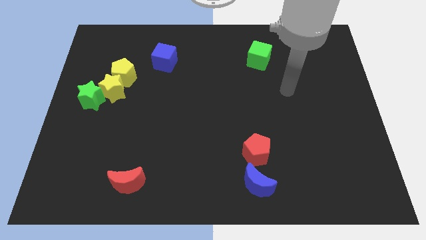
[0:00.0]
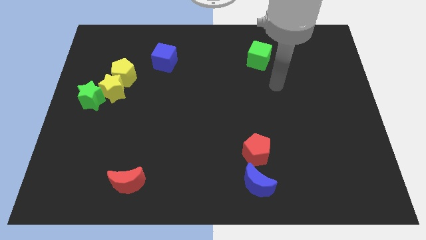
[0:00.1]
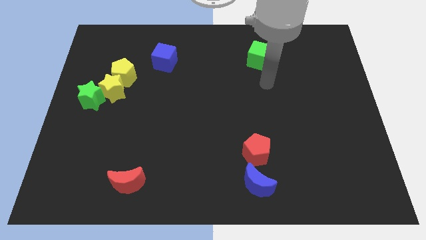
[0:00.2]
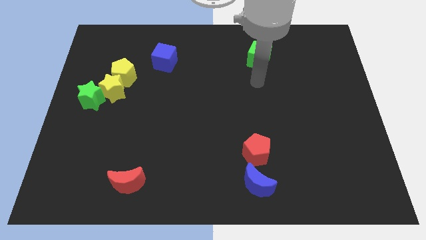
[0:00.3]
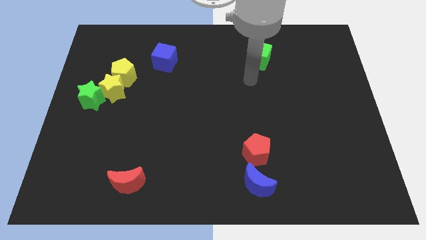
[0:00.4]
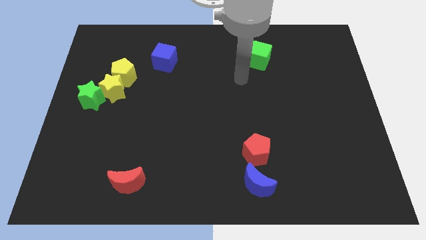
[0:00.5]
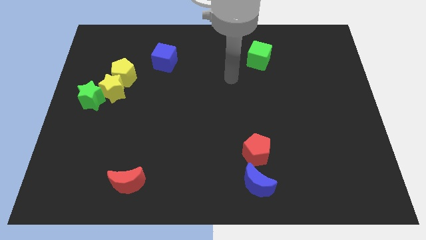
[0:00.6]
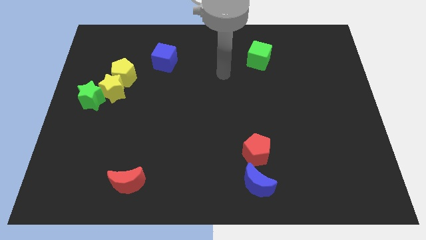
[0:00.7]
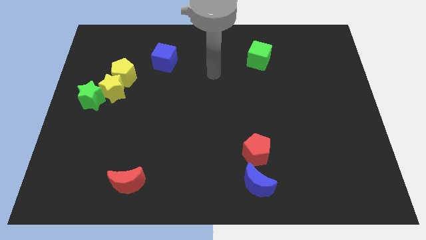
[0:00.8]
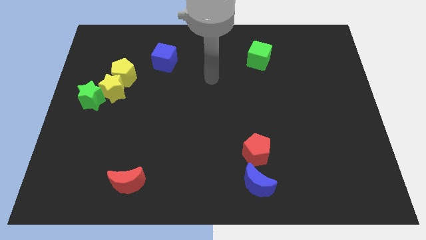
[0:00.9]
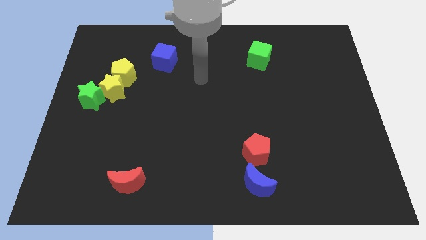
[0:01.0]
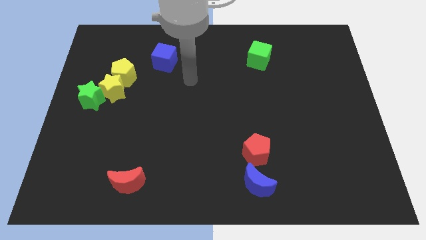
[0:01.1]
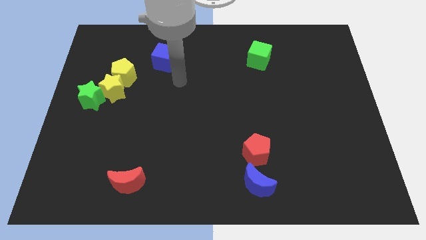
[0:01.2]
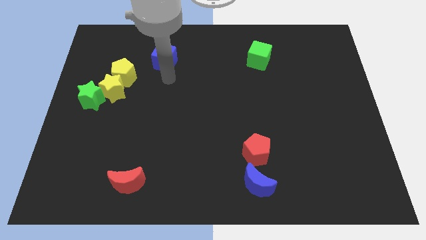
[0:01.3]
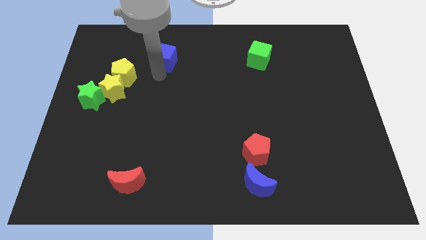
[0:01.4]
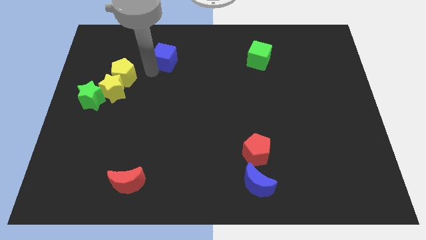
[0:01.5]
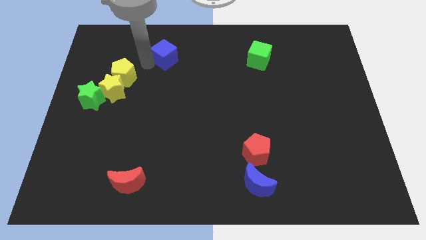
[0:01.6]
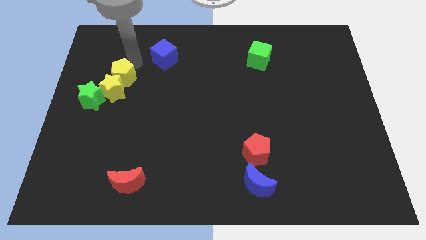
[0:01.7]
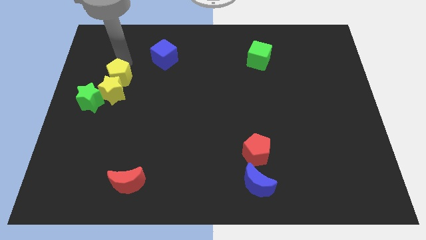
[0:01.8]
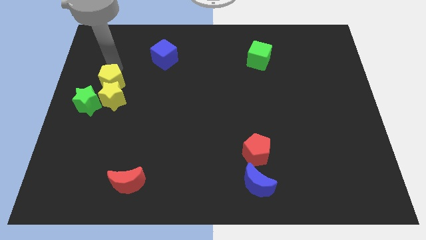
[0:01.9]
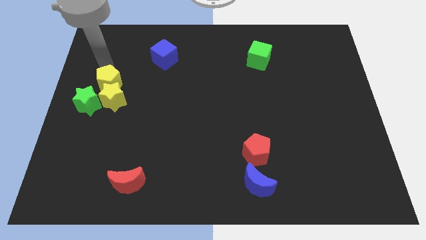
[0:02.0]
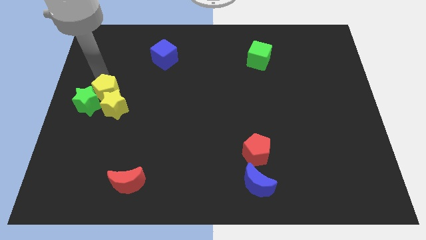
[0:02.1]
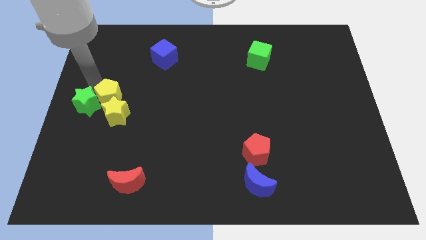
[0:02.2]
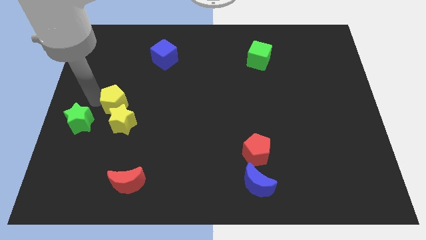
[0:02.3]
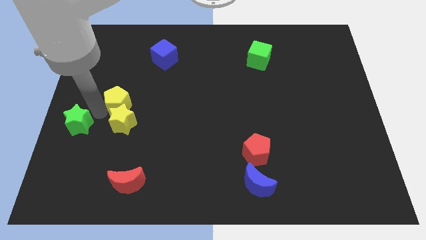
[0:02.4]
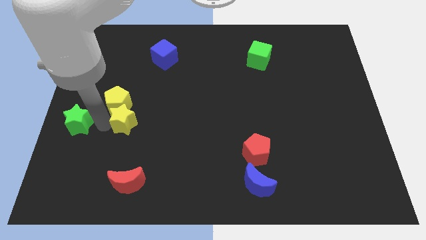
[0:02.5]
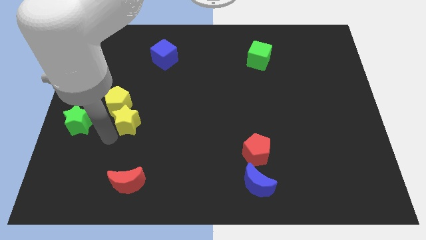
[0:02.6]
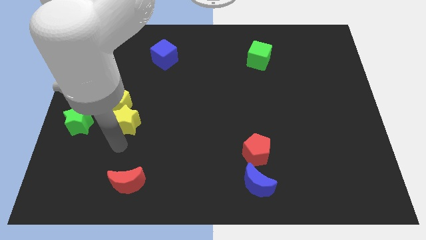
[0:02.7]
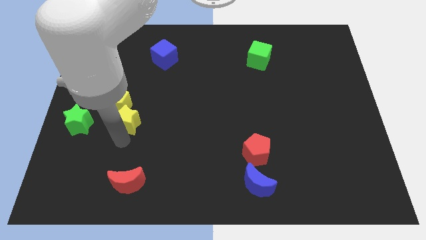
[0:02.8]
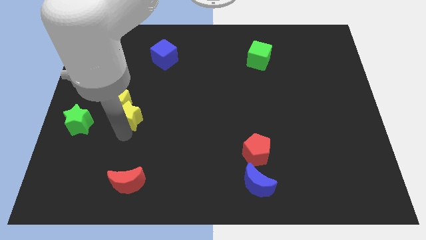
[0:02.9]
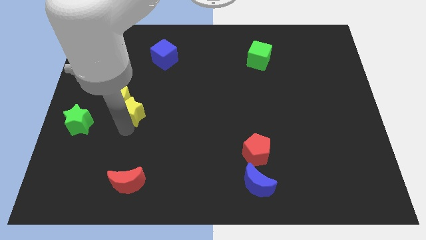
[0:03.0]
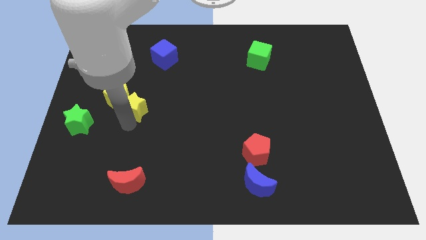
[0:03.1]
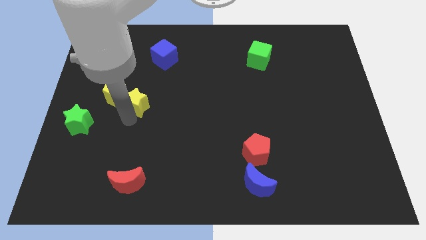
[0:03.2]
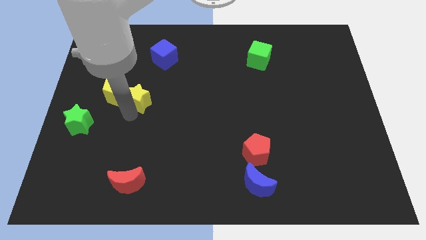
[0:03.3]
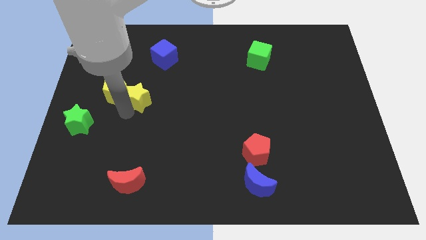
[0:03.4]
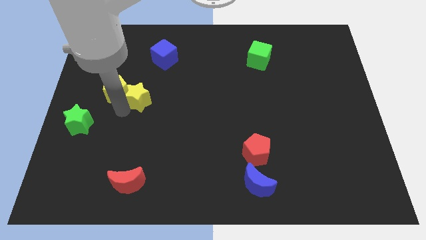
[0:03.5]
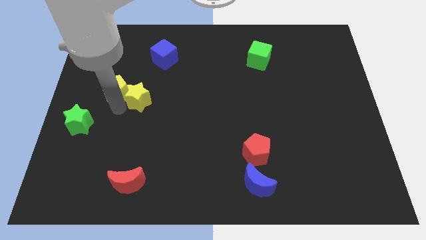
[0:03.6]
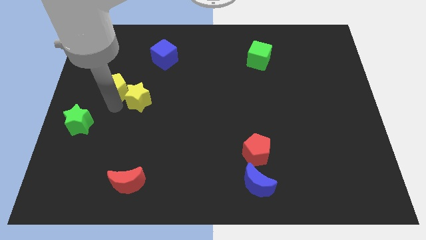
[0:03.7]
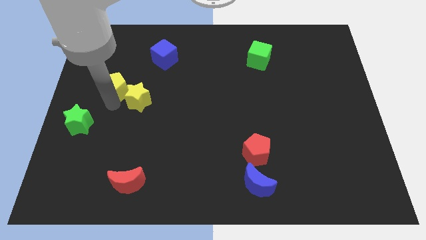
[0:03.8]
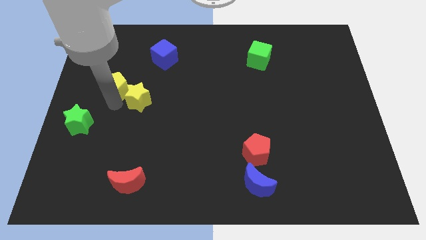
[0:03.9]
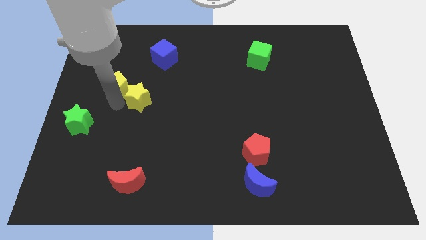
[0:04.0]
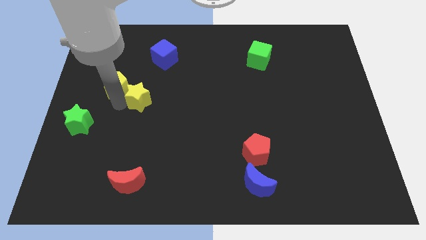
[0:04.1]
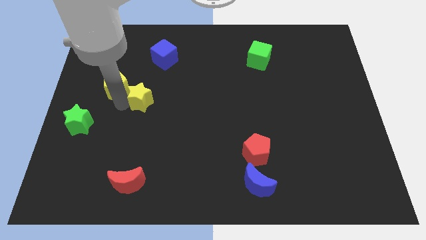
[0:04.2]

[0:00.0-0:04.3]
pull the yellow star apart from the yellow pentagon and green star

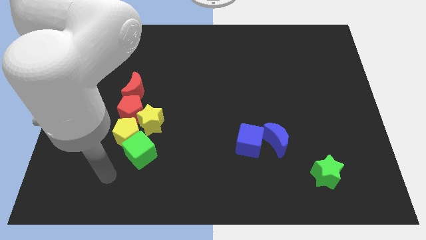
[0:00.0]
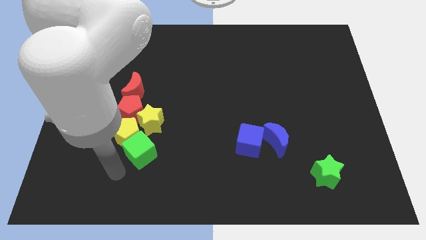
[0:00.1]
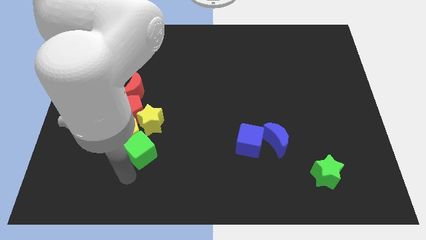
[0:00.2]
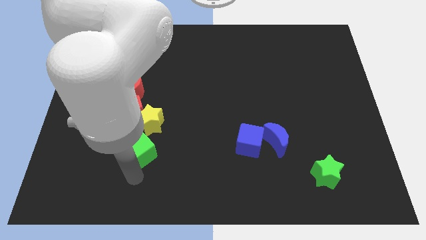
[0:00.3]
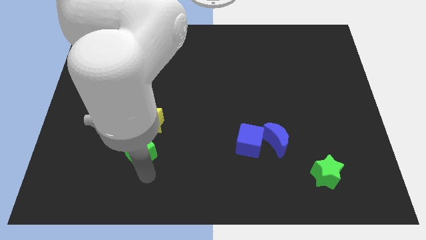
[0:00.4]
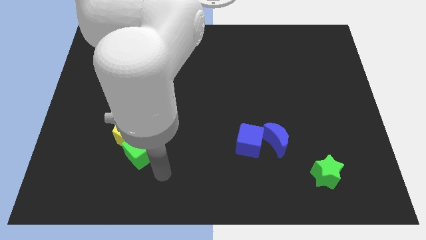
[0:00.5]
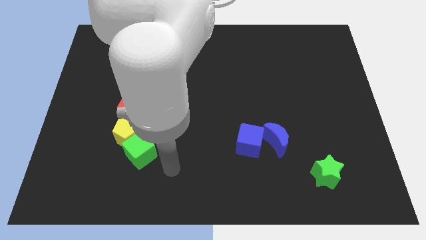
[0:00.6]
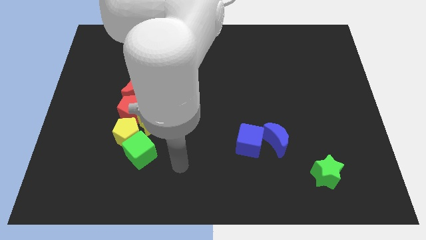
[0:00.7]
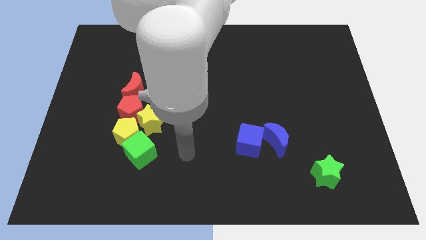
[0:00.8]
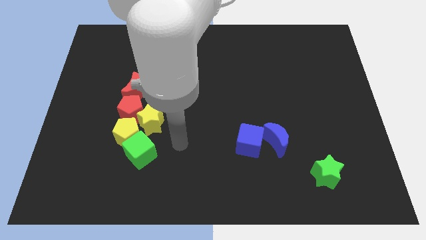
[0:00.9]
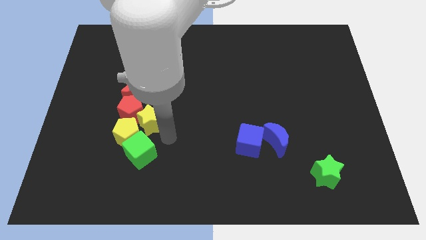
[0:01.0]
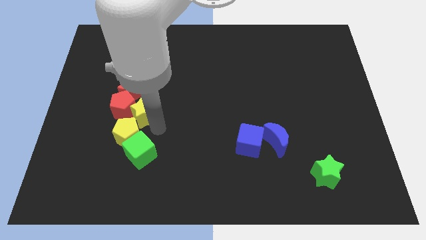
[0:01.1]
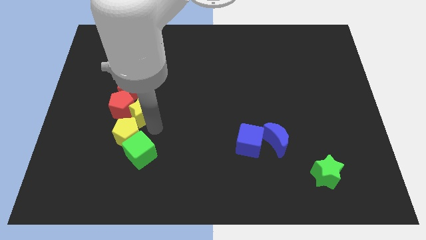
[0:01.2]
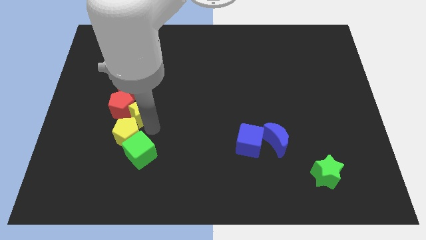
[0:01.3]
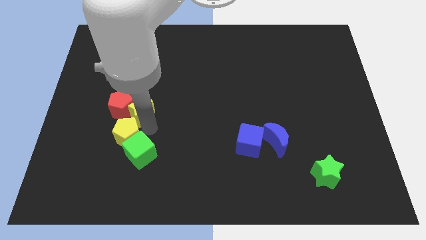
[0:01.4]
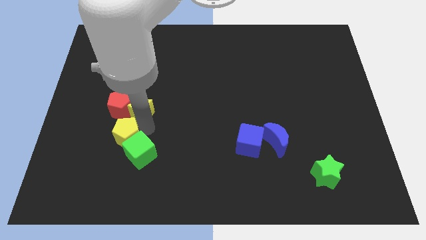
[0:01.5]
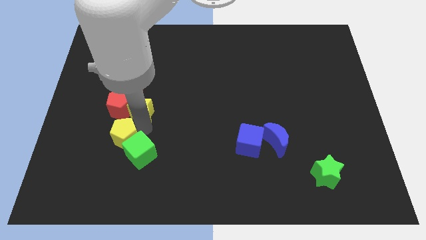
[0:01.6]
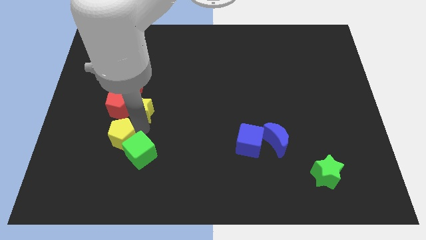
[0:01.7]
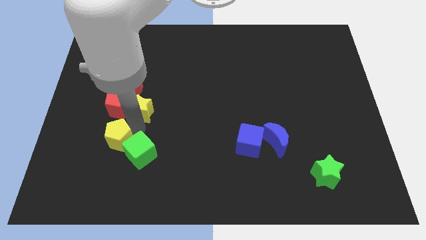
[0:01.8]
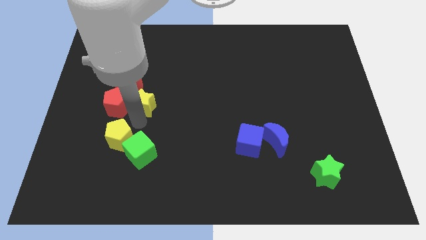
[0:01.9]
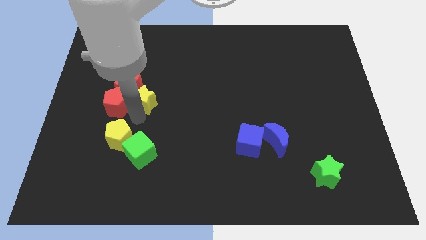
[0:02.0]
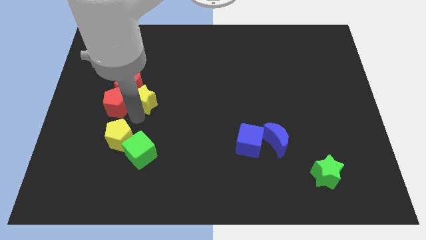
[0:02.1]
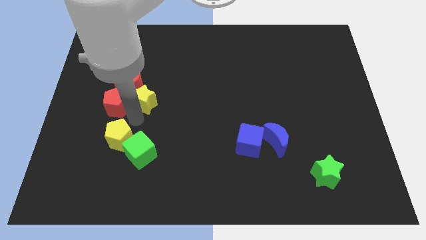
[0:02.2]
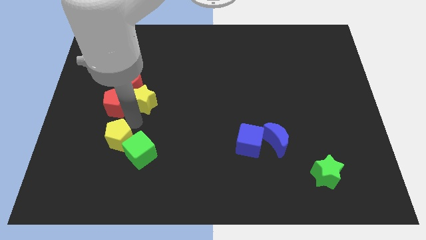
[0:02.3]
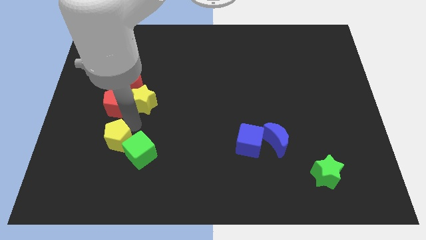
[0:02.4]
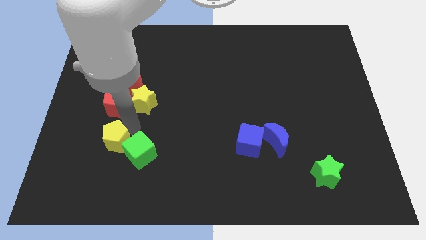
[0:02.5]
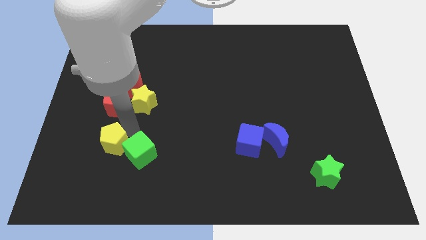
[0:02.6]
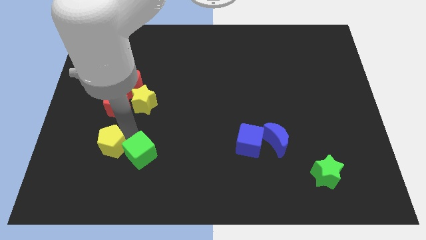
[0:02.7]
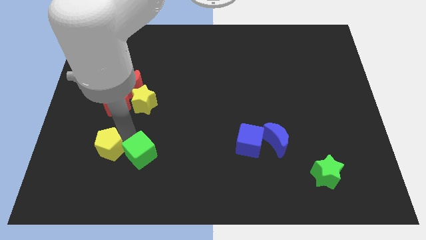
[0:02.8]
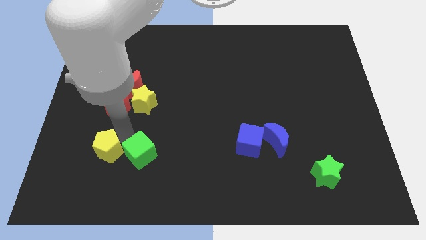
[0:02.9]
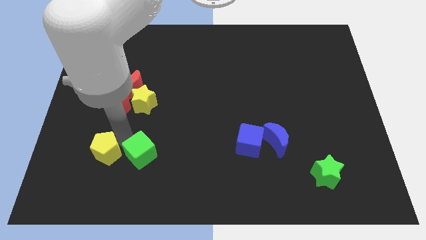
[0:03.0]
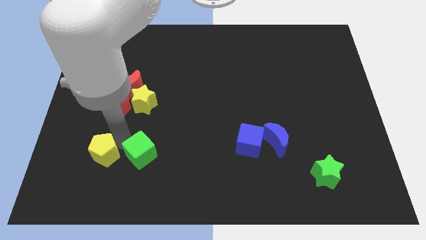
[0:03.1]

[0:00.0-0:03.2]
pull the yellow pentagon apart from the group

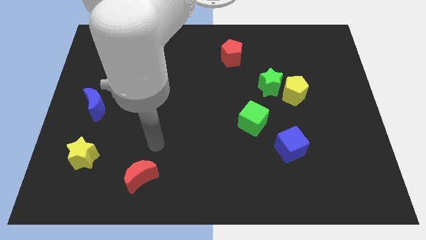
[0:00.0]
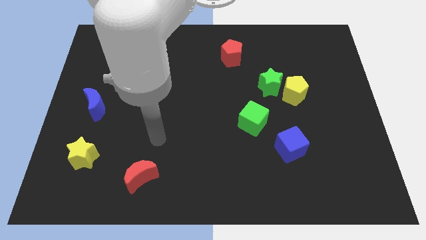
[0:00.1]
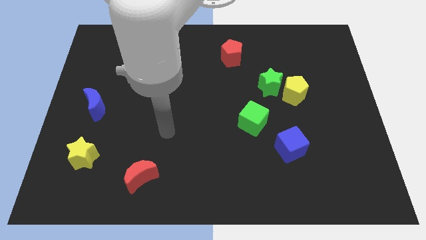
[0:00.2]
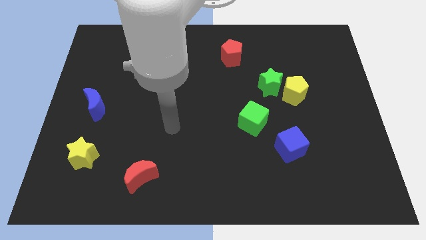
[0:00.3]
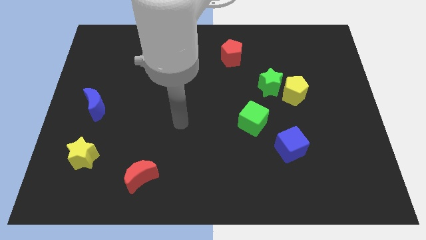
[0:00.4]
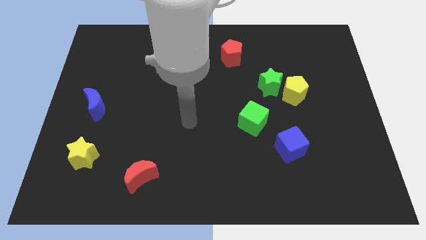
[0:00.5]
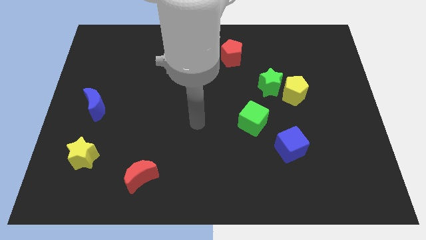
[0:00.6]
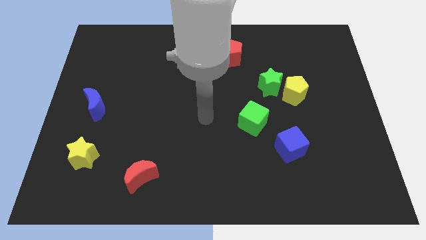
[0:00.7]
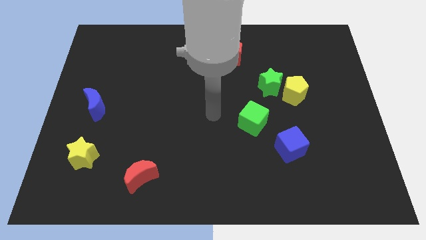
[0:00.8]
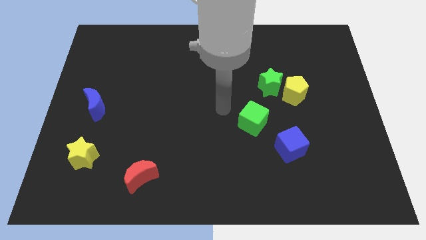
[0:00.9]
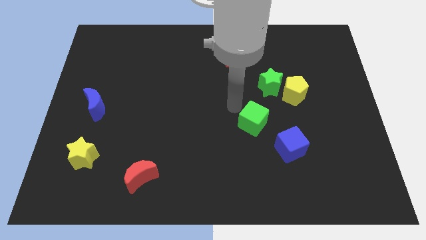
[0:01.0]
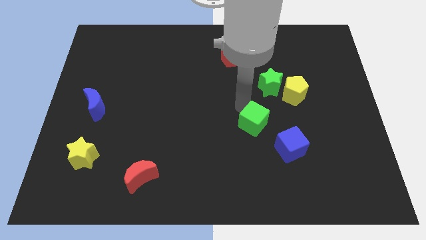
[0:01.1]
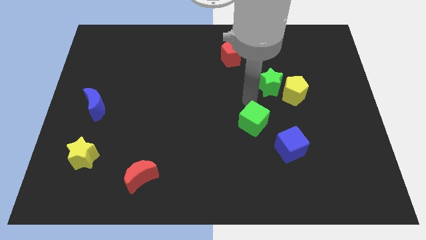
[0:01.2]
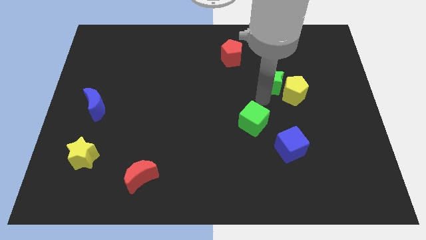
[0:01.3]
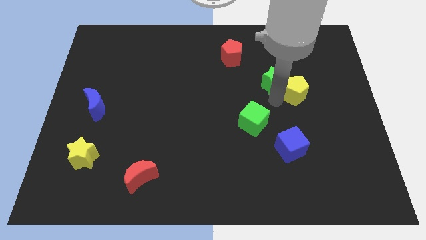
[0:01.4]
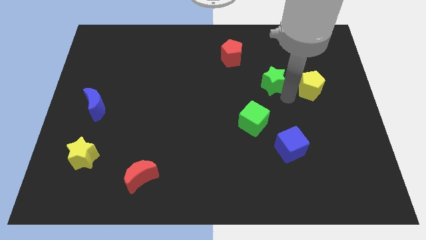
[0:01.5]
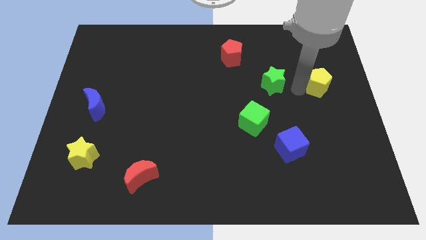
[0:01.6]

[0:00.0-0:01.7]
pull the green star apart from the yellow pentagon

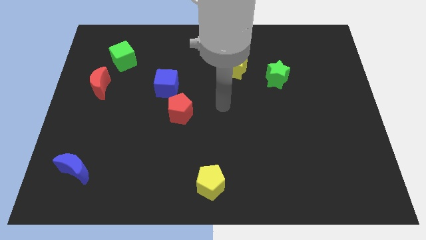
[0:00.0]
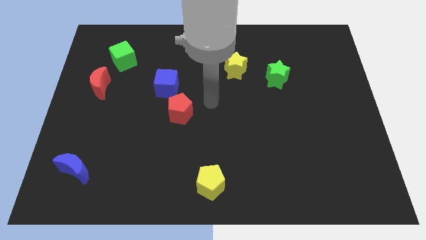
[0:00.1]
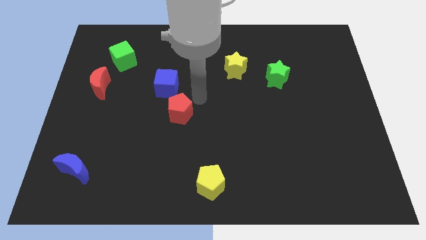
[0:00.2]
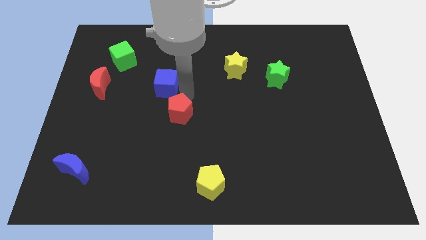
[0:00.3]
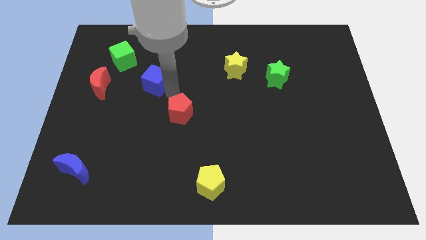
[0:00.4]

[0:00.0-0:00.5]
move the red pentagon away from the blue cube
